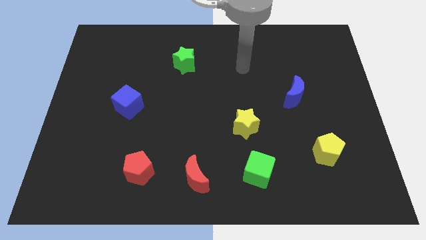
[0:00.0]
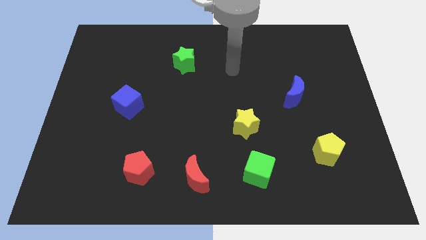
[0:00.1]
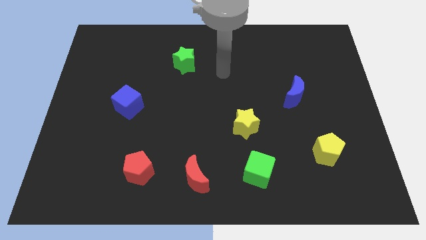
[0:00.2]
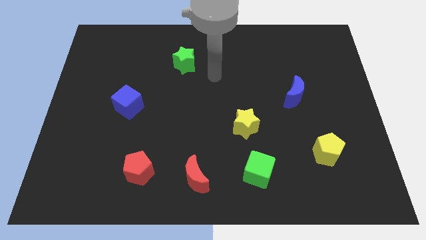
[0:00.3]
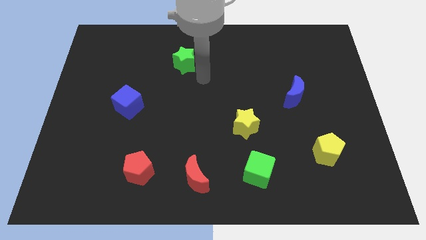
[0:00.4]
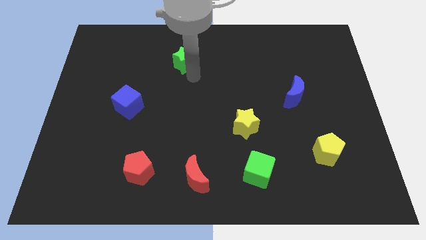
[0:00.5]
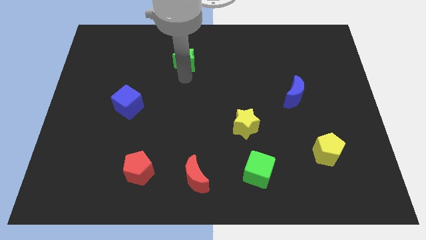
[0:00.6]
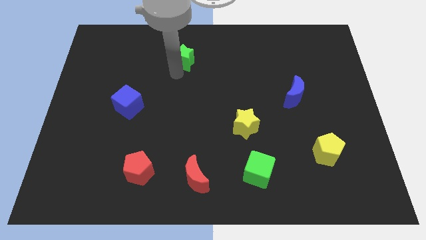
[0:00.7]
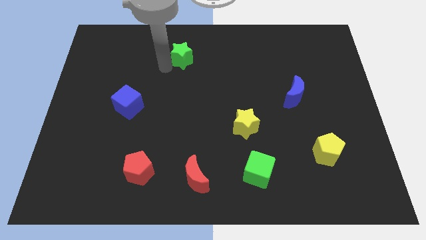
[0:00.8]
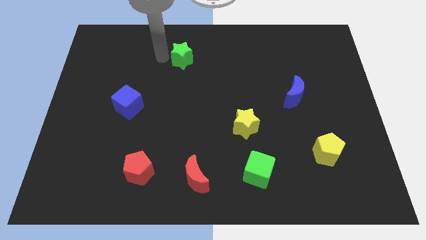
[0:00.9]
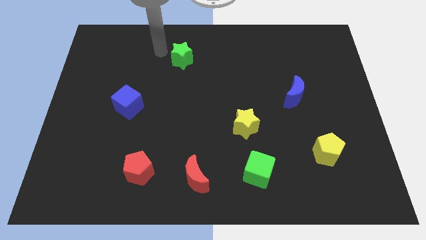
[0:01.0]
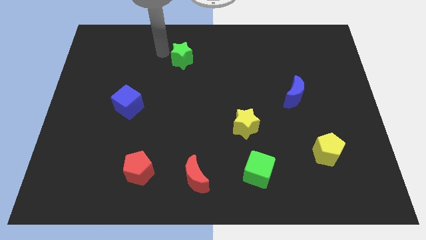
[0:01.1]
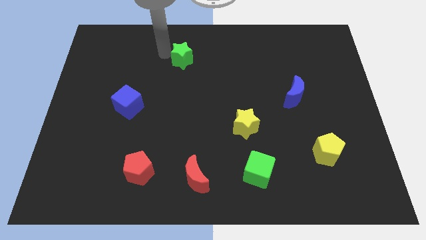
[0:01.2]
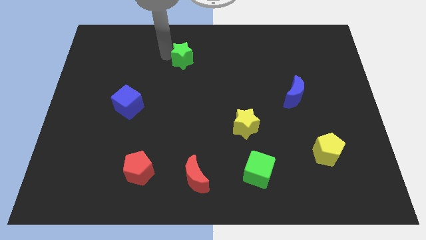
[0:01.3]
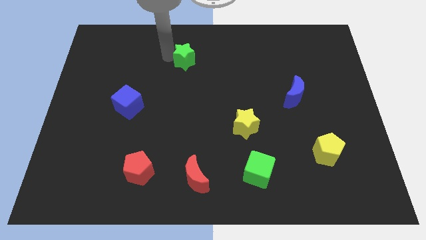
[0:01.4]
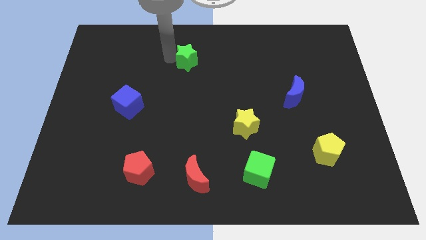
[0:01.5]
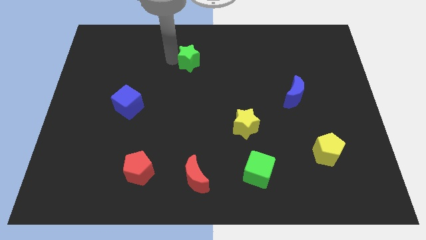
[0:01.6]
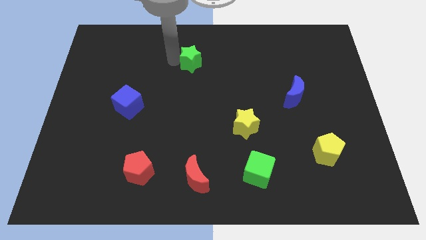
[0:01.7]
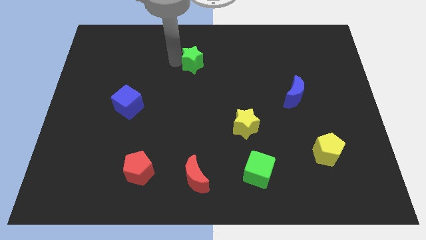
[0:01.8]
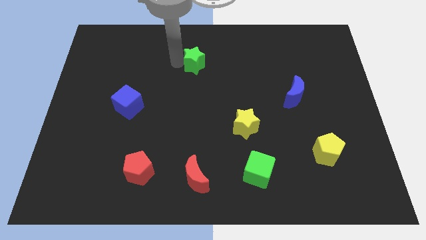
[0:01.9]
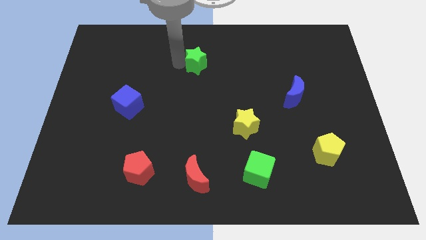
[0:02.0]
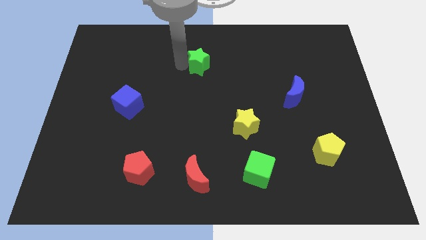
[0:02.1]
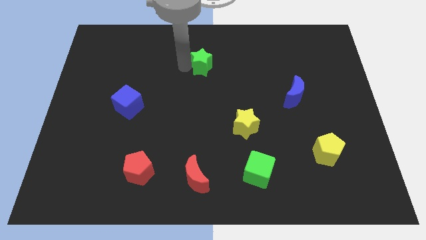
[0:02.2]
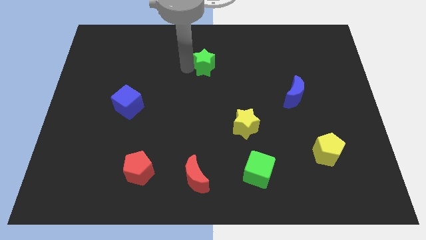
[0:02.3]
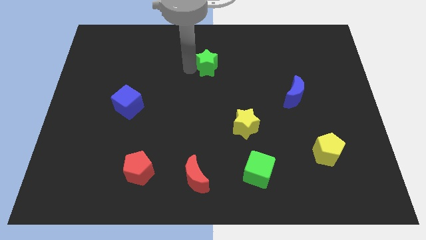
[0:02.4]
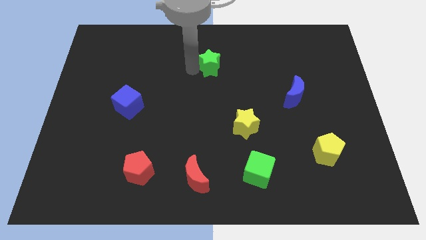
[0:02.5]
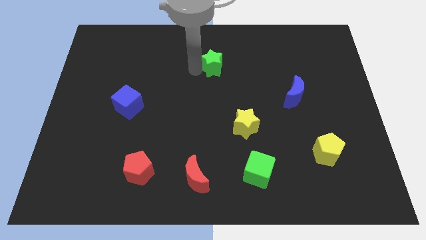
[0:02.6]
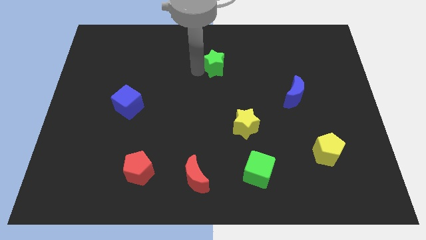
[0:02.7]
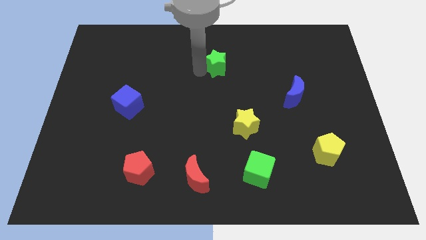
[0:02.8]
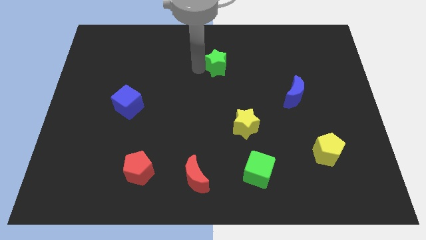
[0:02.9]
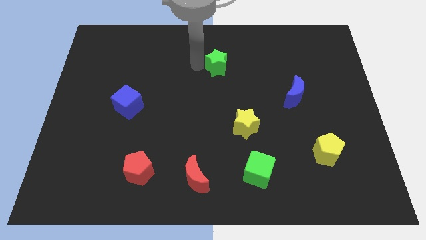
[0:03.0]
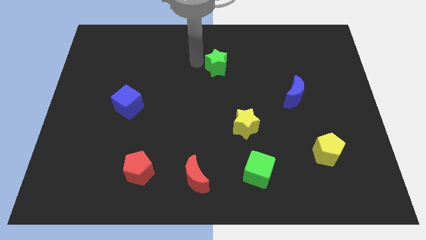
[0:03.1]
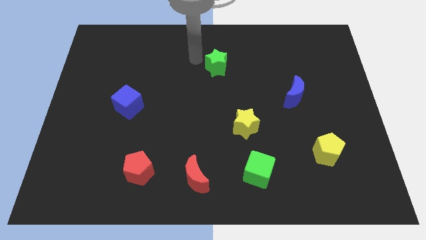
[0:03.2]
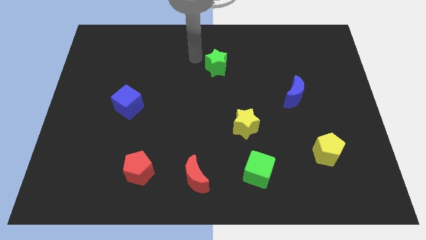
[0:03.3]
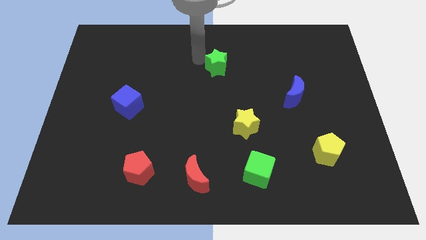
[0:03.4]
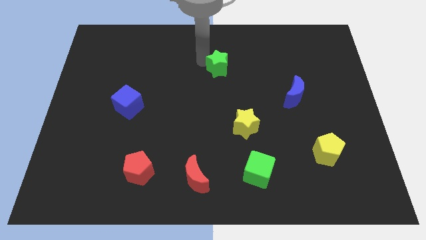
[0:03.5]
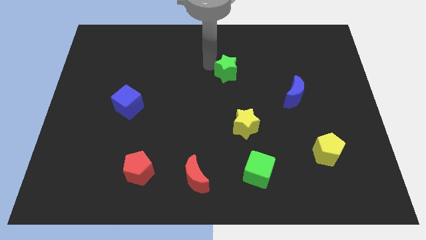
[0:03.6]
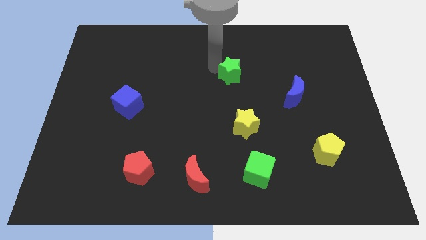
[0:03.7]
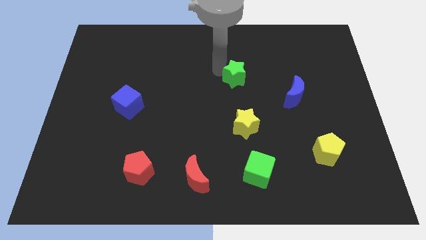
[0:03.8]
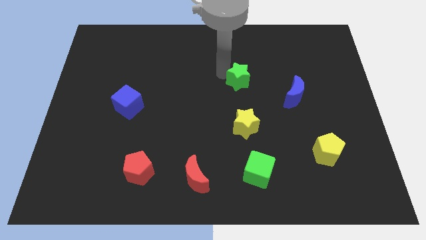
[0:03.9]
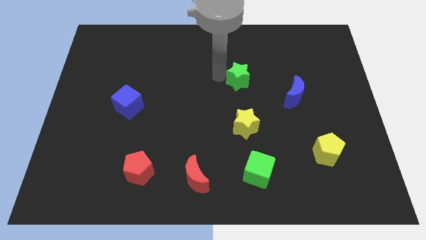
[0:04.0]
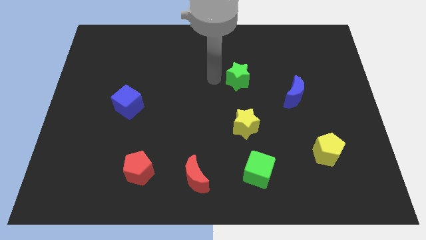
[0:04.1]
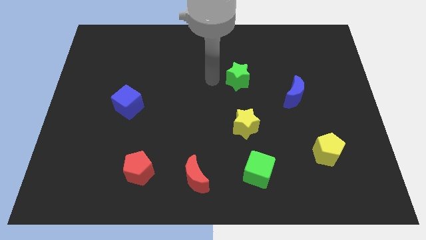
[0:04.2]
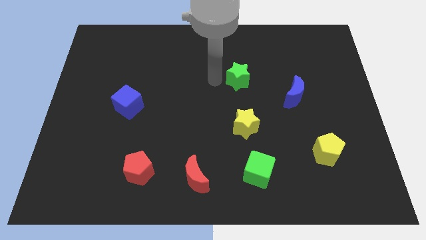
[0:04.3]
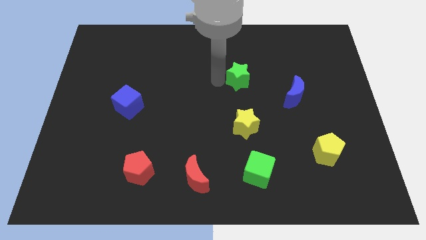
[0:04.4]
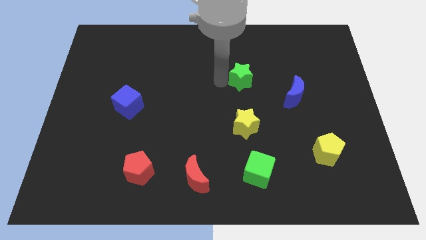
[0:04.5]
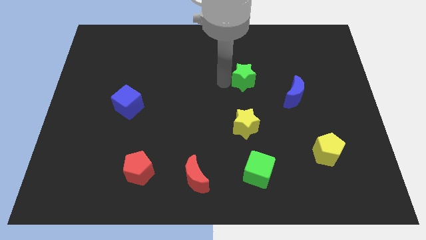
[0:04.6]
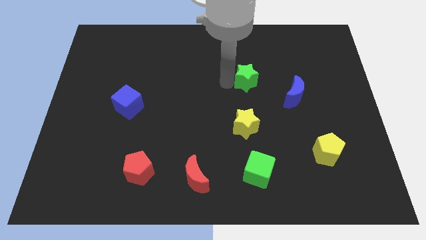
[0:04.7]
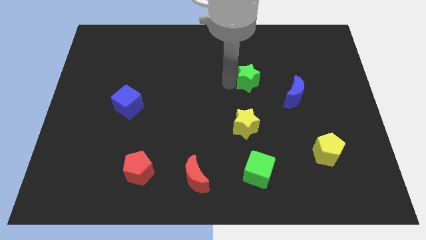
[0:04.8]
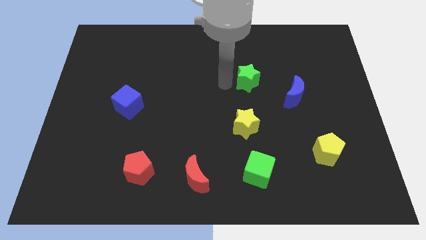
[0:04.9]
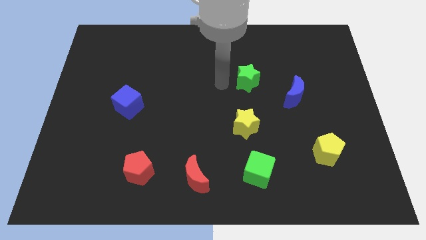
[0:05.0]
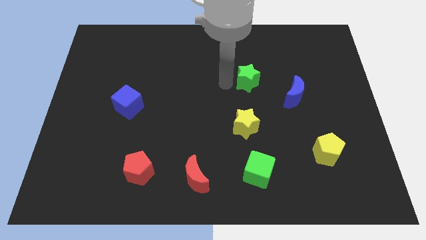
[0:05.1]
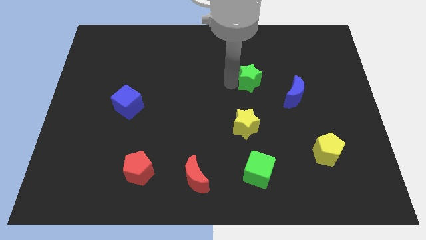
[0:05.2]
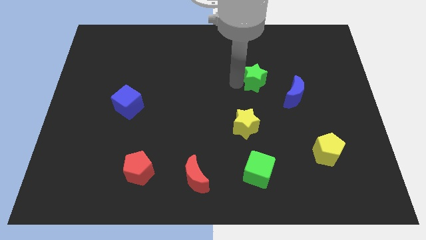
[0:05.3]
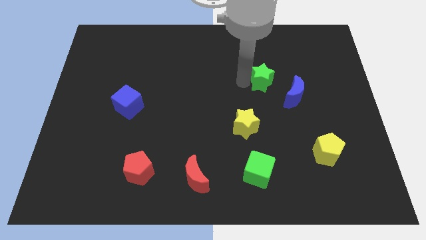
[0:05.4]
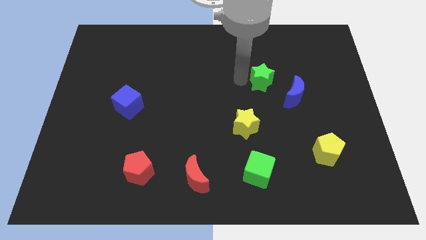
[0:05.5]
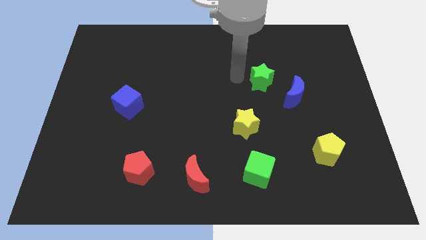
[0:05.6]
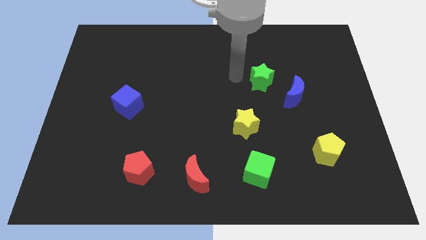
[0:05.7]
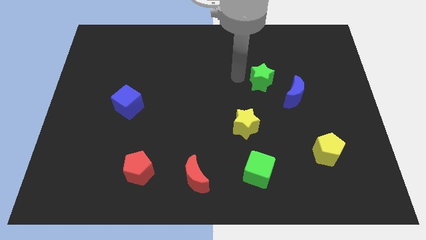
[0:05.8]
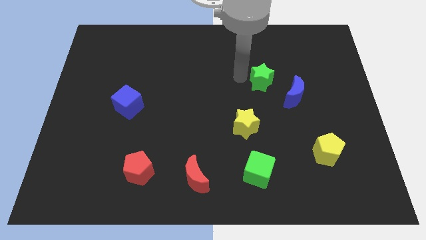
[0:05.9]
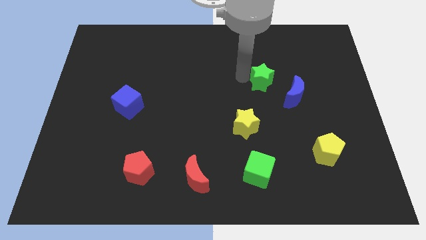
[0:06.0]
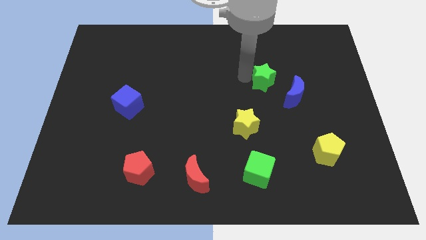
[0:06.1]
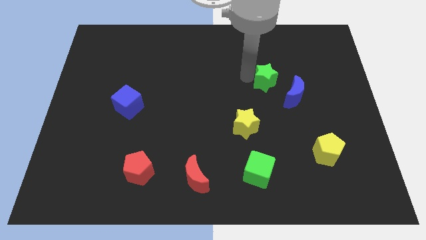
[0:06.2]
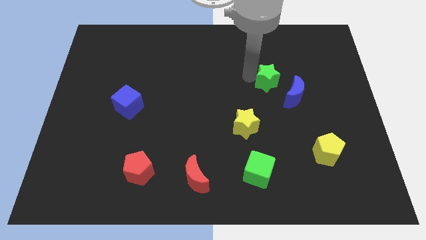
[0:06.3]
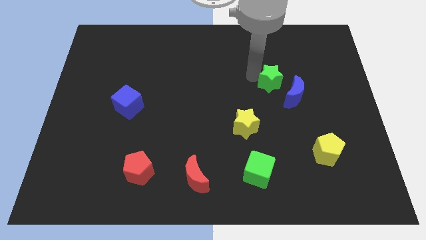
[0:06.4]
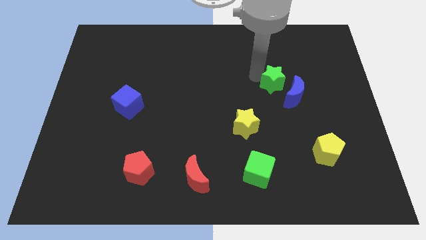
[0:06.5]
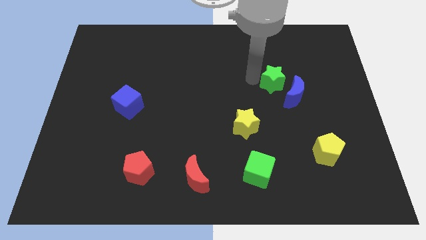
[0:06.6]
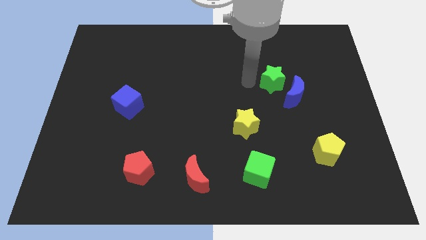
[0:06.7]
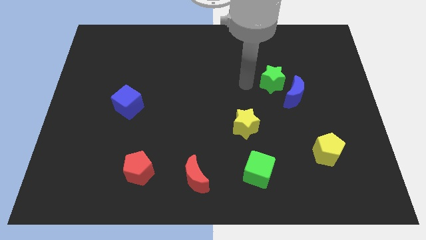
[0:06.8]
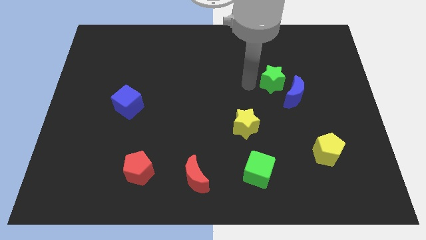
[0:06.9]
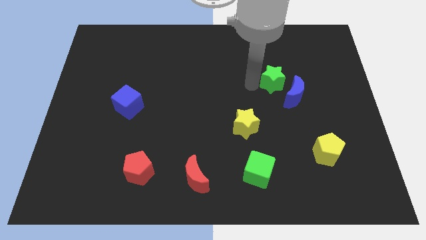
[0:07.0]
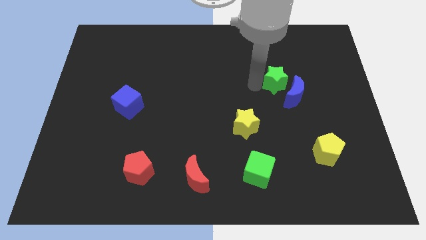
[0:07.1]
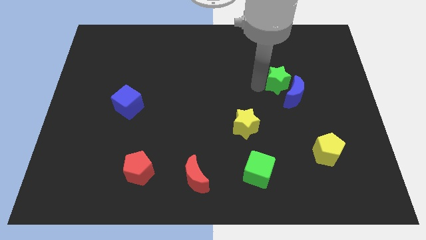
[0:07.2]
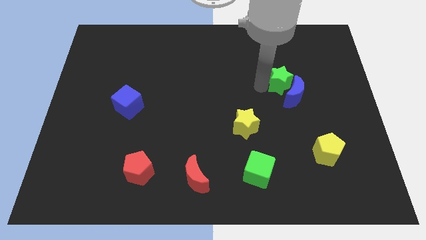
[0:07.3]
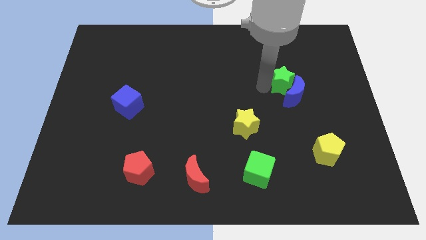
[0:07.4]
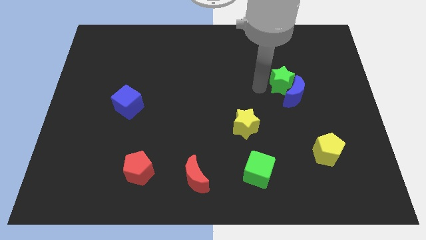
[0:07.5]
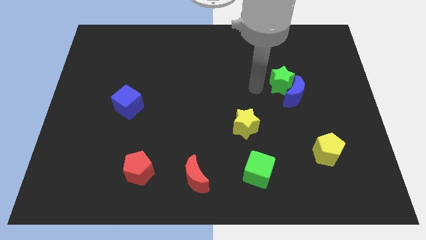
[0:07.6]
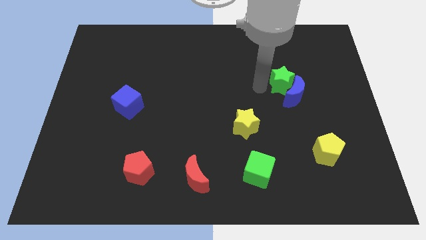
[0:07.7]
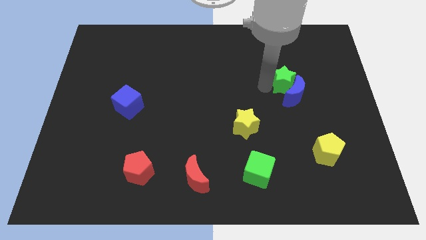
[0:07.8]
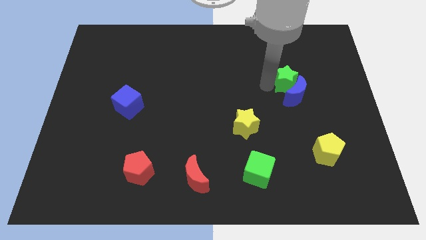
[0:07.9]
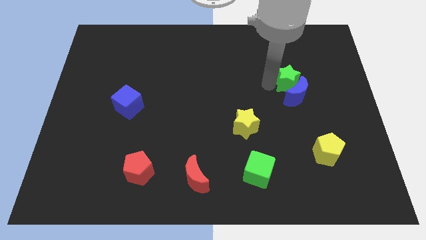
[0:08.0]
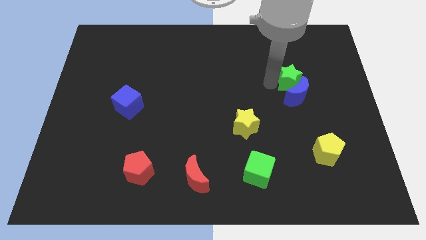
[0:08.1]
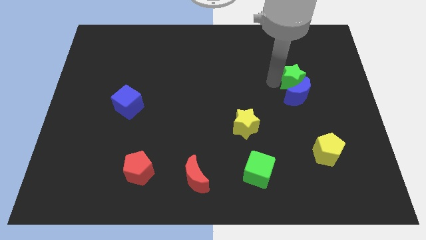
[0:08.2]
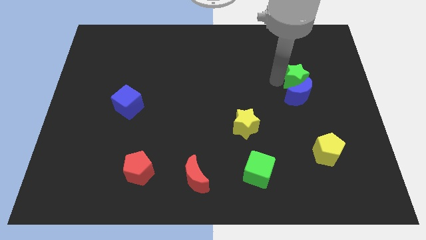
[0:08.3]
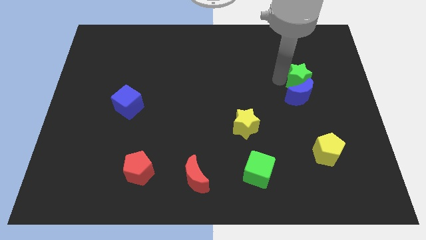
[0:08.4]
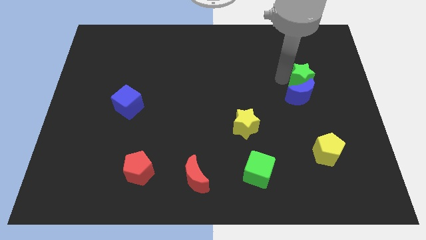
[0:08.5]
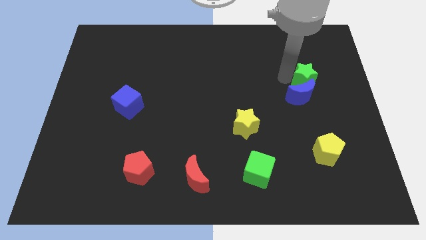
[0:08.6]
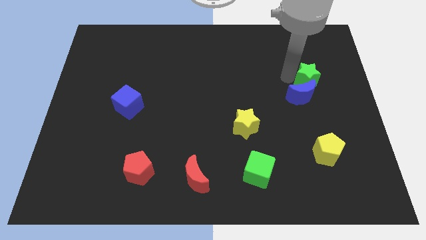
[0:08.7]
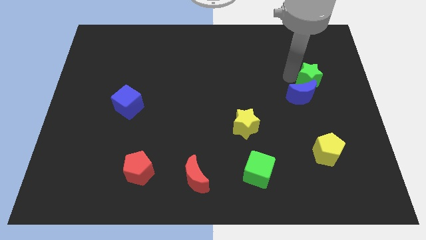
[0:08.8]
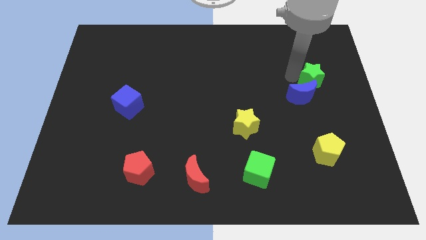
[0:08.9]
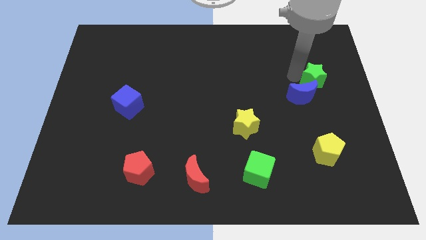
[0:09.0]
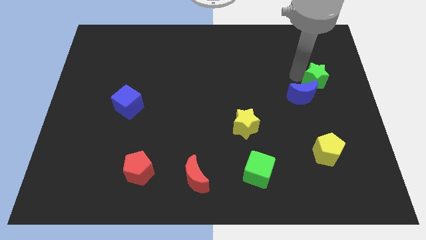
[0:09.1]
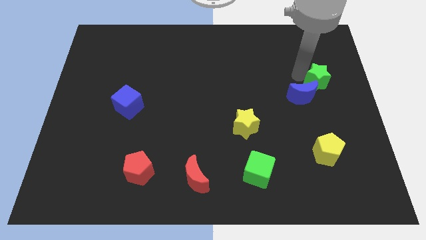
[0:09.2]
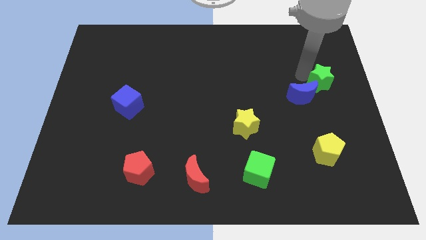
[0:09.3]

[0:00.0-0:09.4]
slide the green star to the right side of the board
